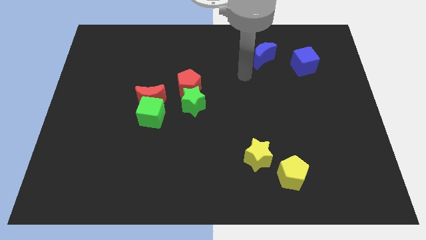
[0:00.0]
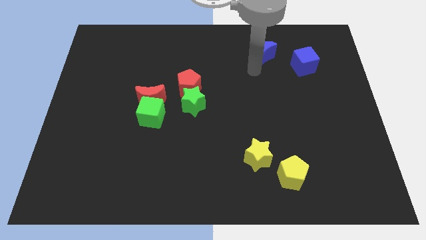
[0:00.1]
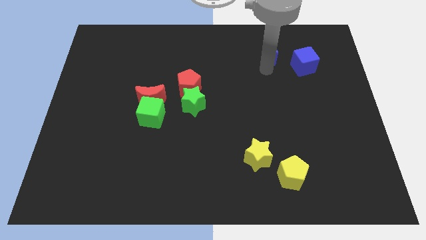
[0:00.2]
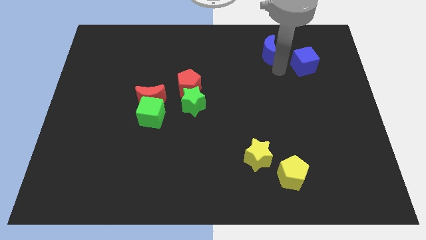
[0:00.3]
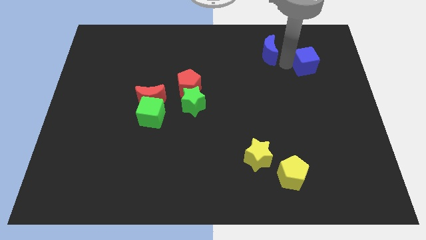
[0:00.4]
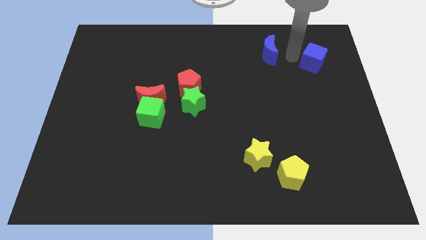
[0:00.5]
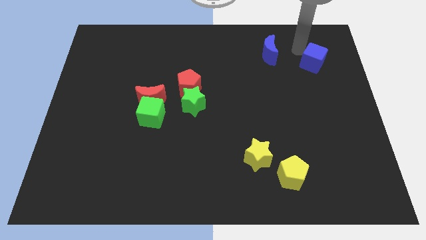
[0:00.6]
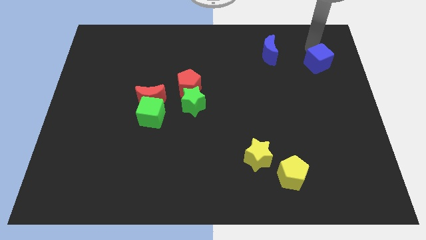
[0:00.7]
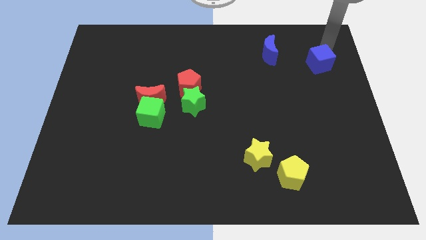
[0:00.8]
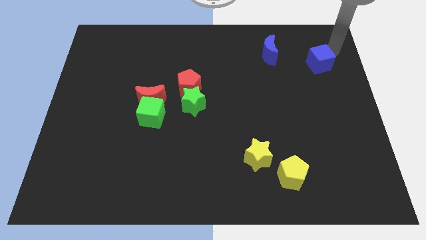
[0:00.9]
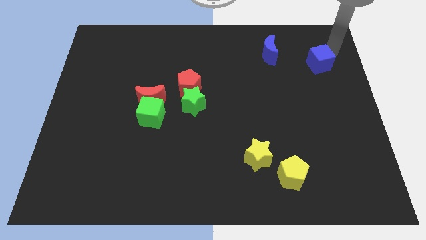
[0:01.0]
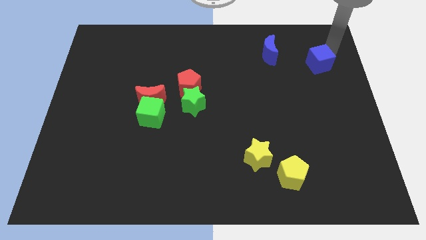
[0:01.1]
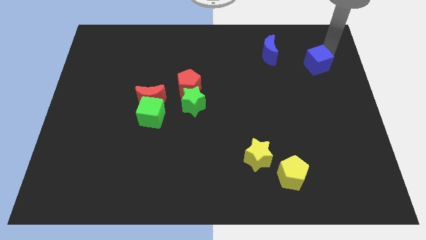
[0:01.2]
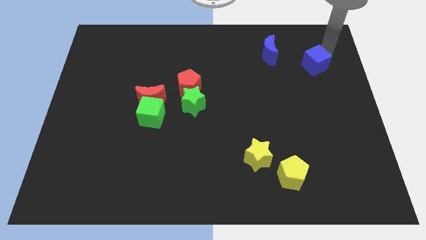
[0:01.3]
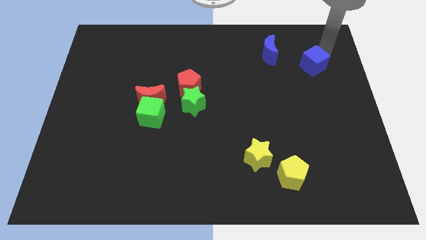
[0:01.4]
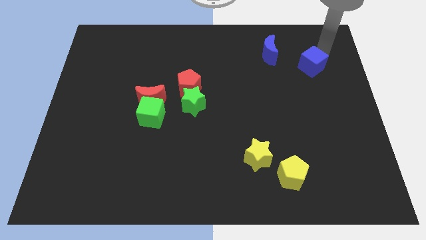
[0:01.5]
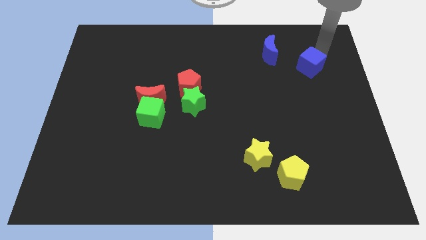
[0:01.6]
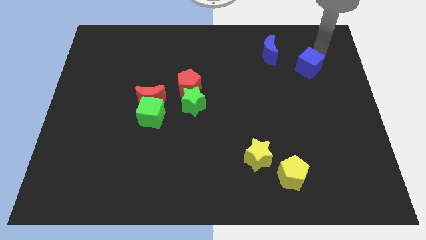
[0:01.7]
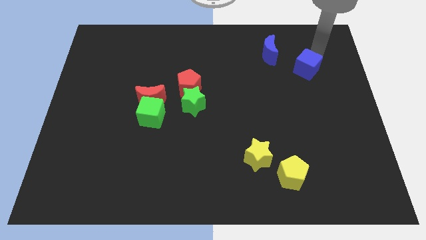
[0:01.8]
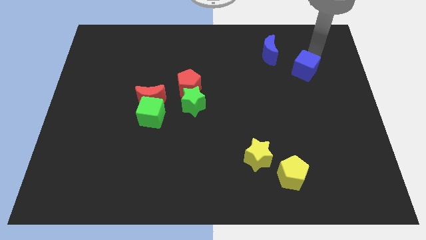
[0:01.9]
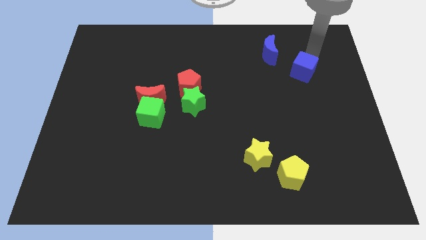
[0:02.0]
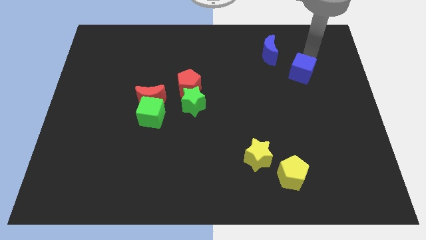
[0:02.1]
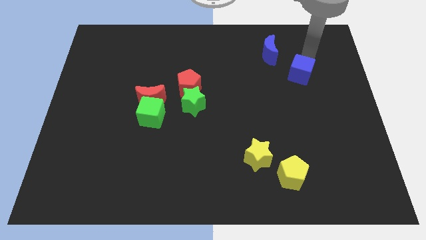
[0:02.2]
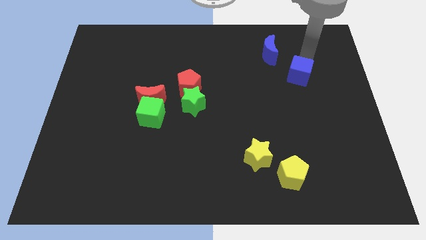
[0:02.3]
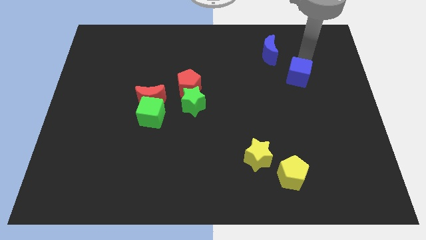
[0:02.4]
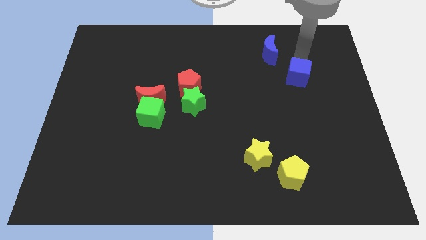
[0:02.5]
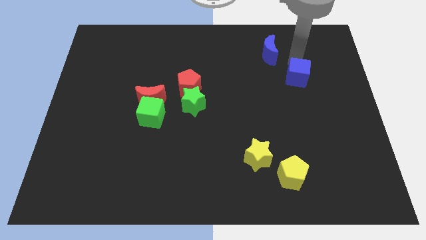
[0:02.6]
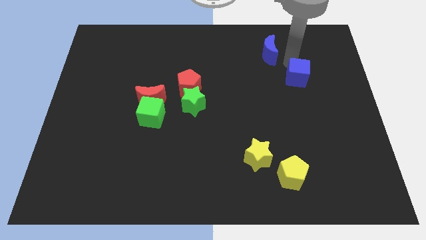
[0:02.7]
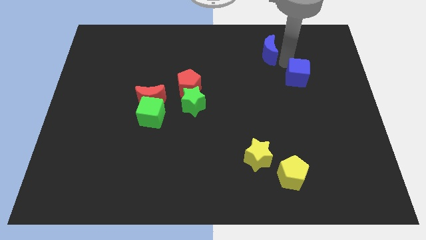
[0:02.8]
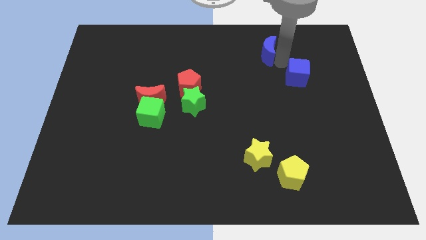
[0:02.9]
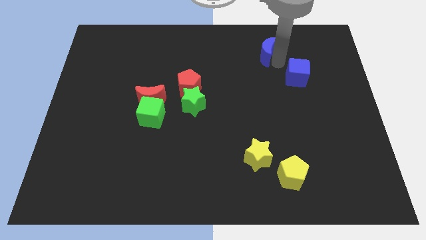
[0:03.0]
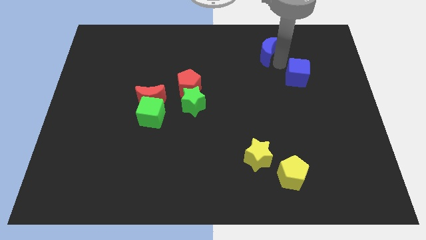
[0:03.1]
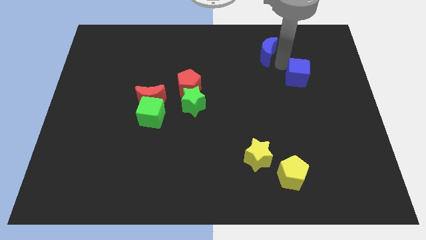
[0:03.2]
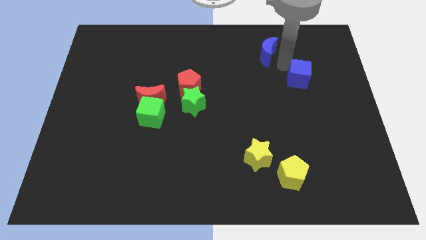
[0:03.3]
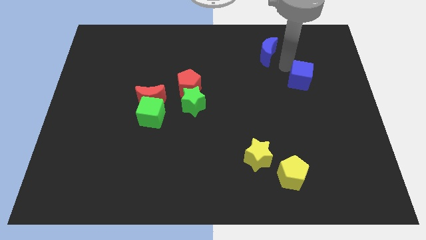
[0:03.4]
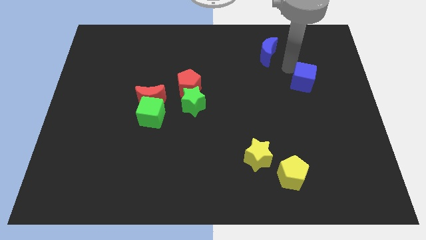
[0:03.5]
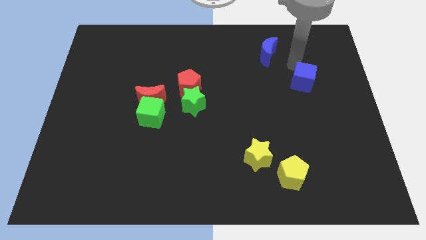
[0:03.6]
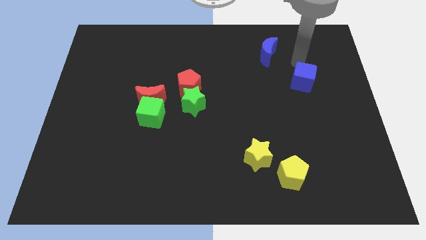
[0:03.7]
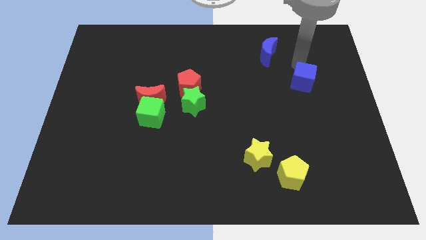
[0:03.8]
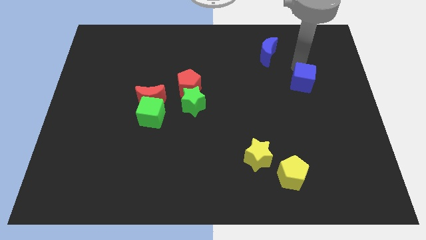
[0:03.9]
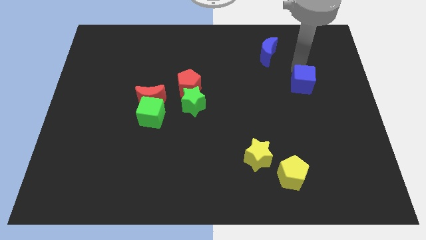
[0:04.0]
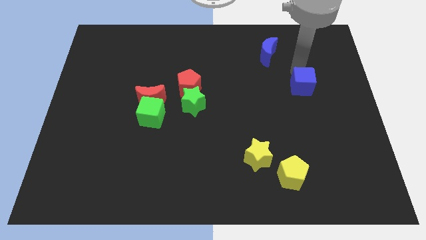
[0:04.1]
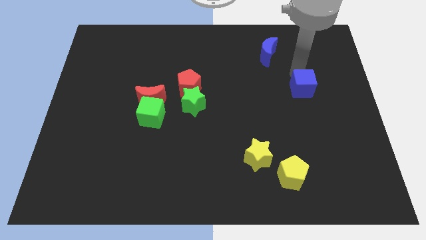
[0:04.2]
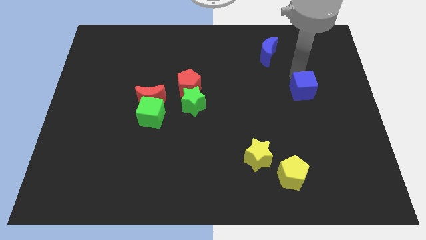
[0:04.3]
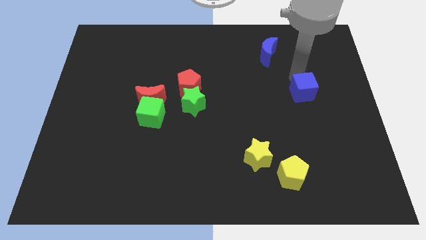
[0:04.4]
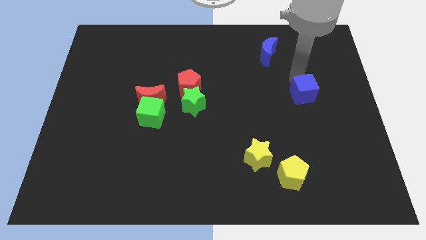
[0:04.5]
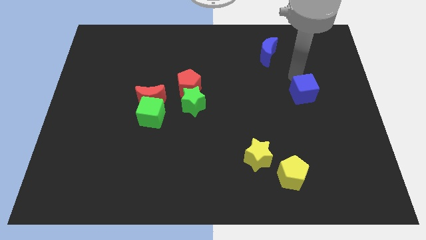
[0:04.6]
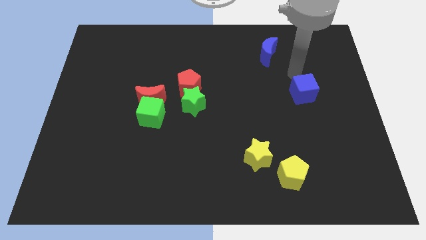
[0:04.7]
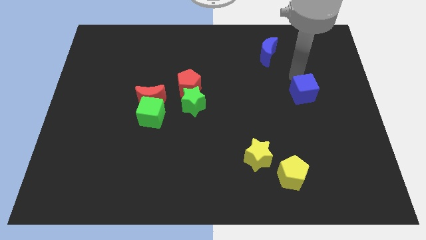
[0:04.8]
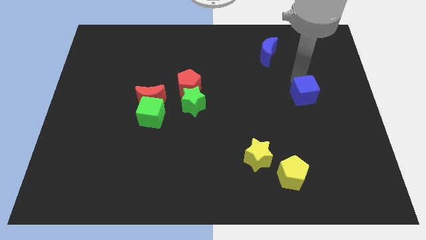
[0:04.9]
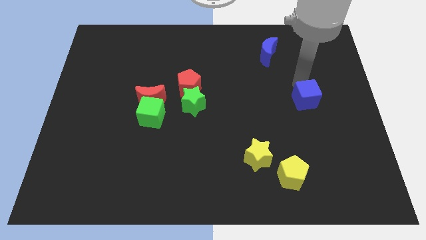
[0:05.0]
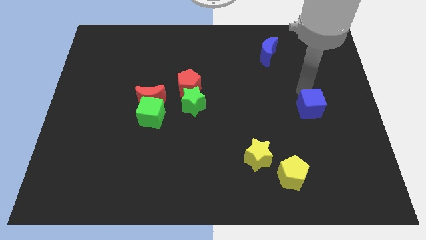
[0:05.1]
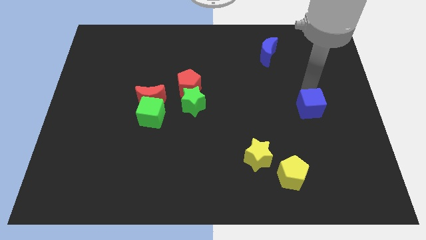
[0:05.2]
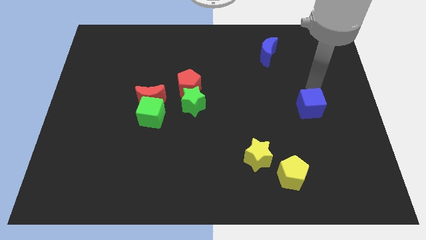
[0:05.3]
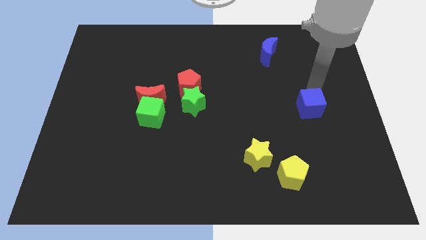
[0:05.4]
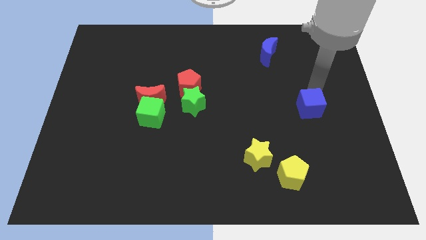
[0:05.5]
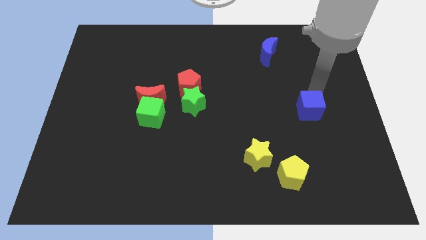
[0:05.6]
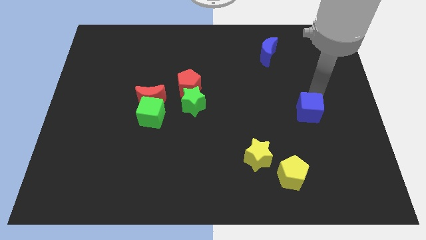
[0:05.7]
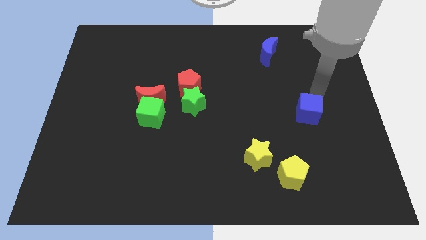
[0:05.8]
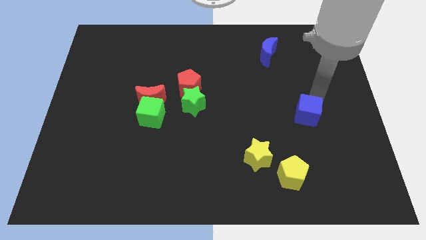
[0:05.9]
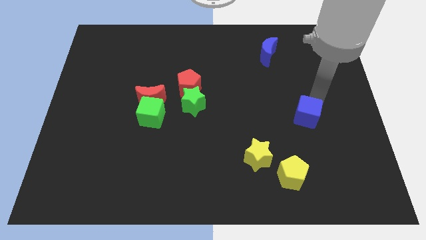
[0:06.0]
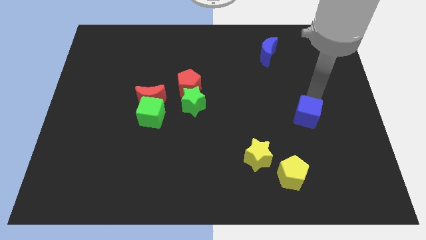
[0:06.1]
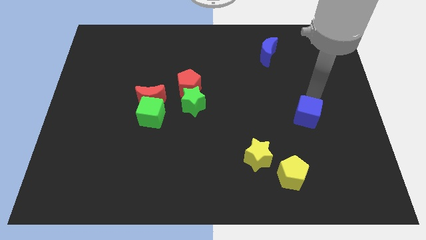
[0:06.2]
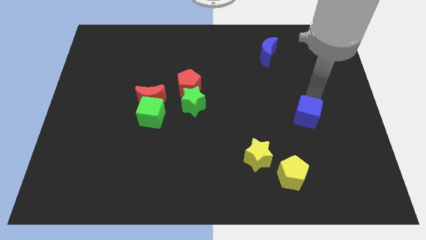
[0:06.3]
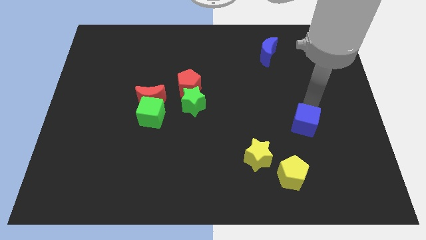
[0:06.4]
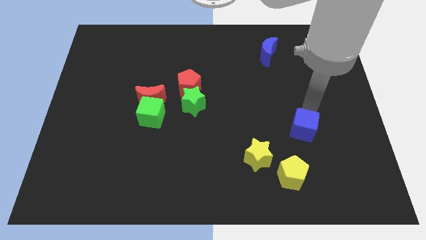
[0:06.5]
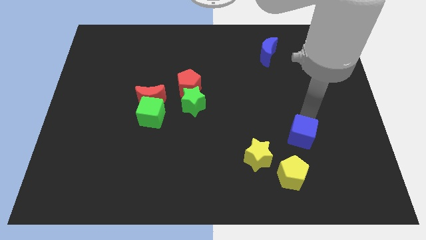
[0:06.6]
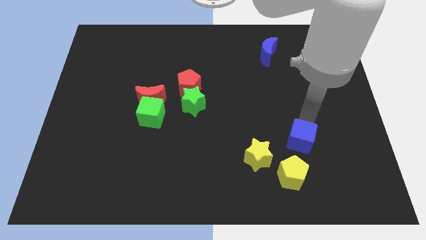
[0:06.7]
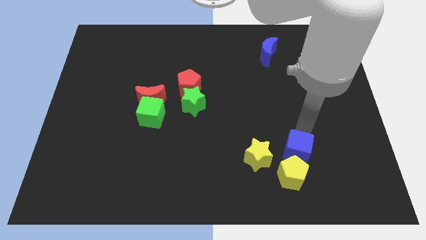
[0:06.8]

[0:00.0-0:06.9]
push the blue cube close to the yellow pentagon

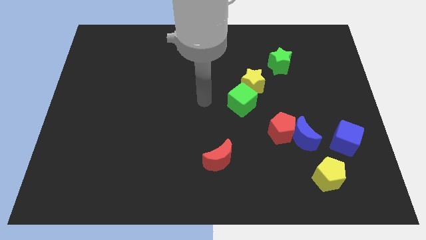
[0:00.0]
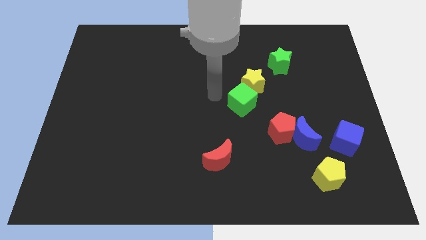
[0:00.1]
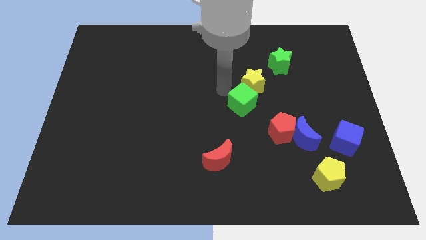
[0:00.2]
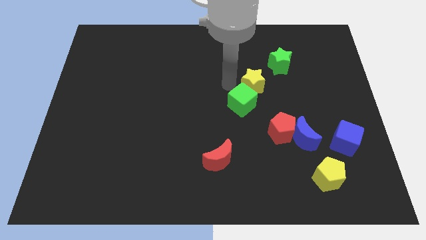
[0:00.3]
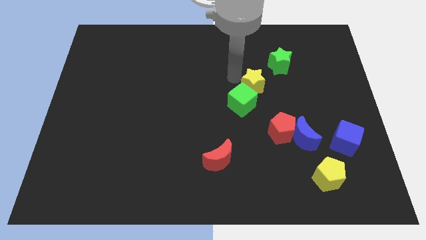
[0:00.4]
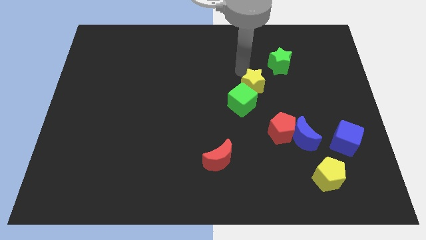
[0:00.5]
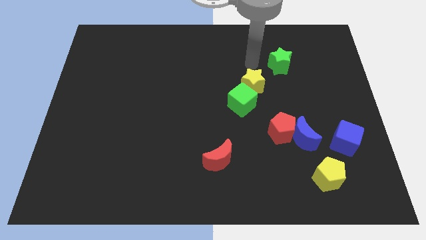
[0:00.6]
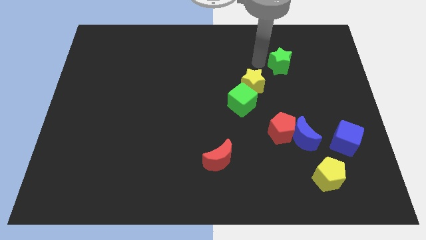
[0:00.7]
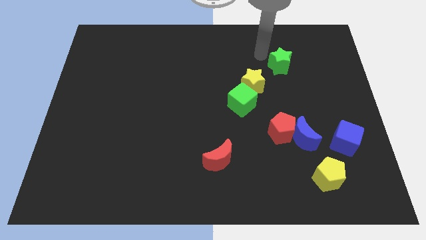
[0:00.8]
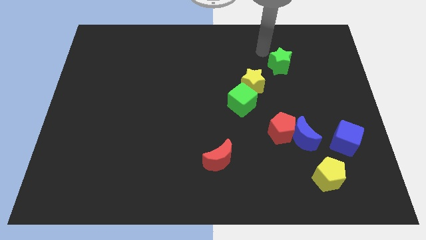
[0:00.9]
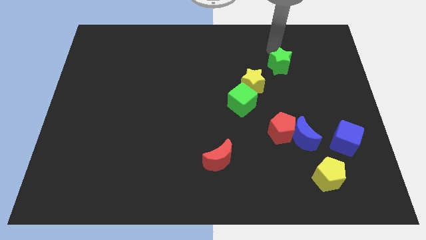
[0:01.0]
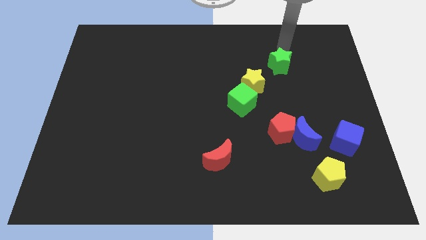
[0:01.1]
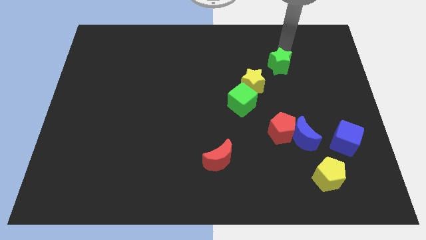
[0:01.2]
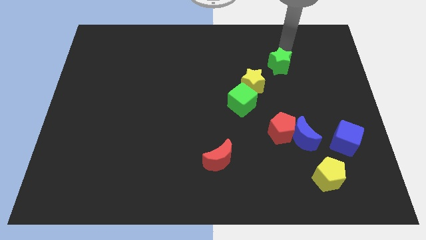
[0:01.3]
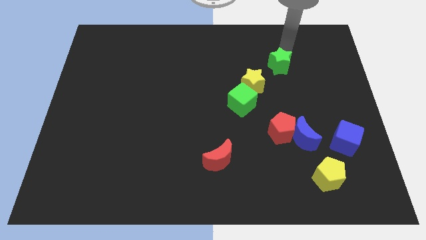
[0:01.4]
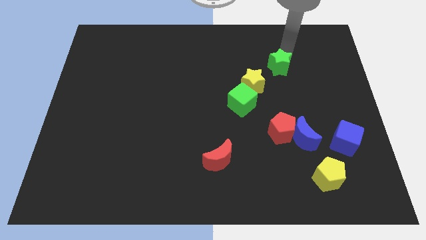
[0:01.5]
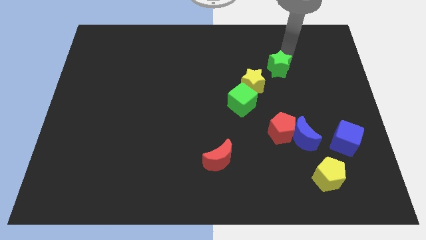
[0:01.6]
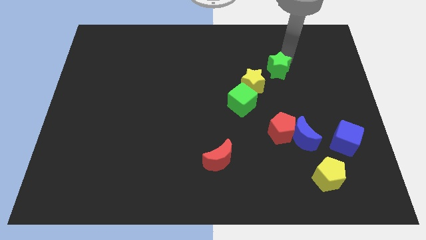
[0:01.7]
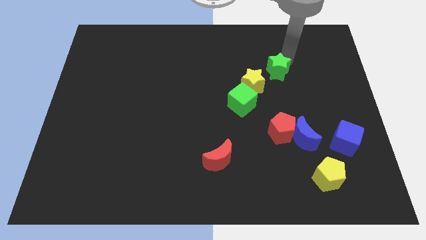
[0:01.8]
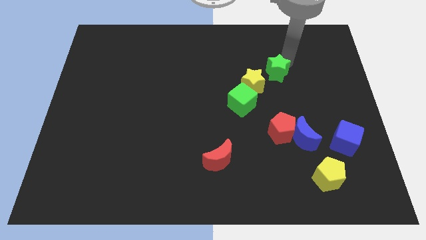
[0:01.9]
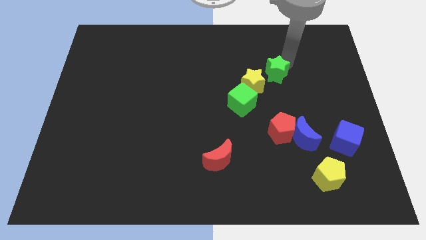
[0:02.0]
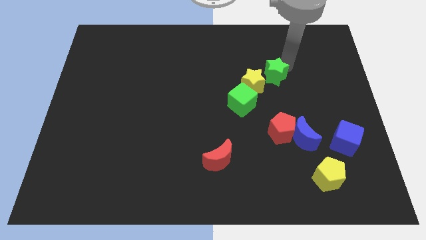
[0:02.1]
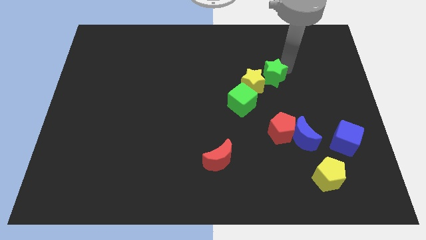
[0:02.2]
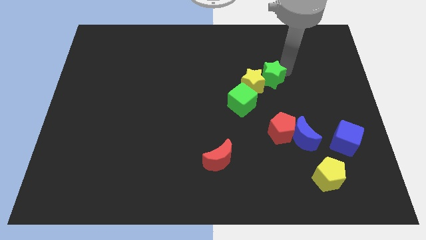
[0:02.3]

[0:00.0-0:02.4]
move the green star towards the yellow star
